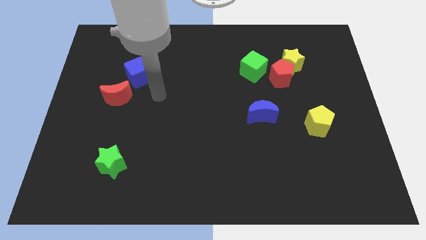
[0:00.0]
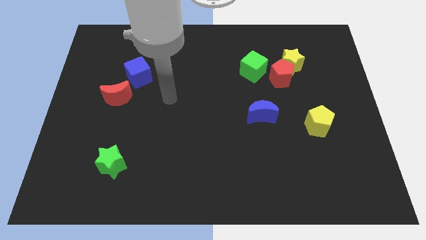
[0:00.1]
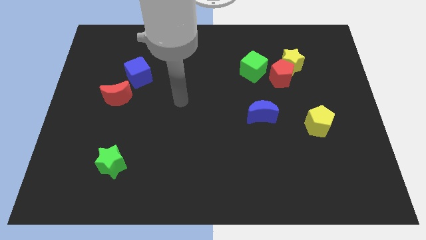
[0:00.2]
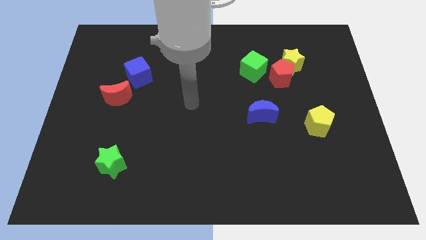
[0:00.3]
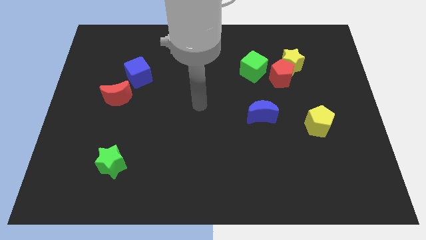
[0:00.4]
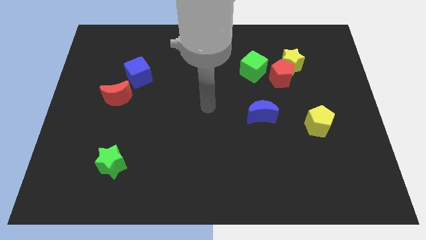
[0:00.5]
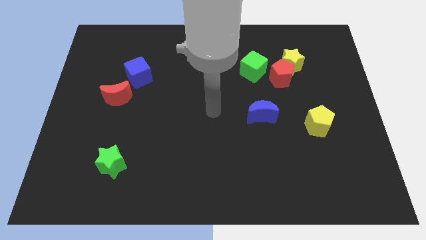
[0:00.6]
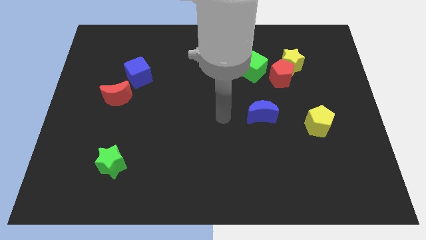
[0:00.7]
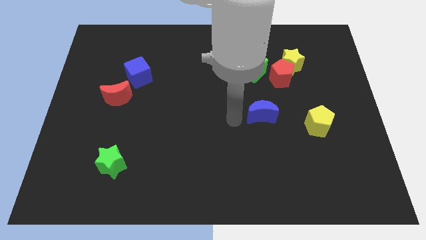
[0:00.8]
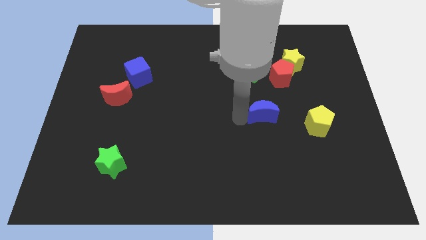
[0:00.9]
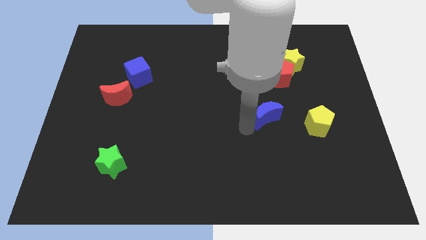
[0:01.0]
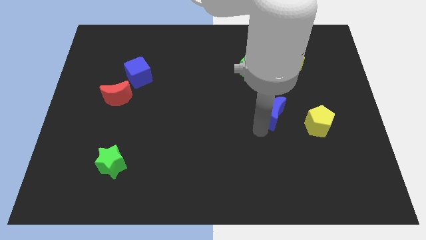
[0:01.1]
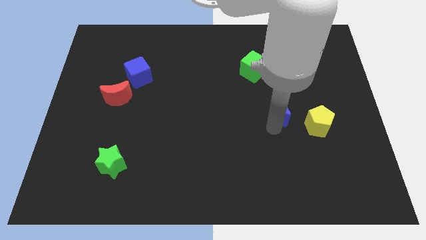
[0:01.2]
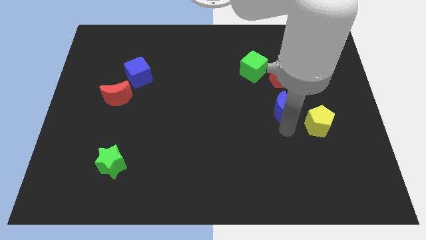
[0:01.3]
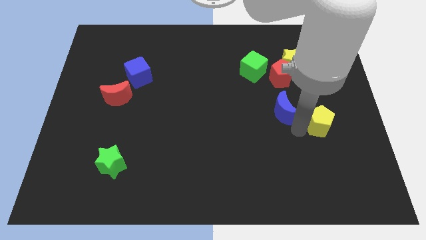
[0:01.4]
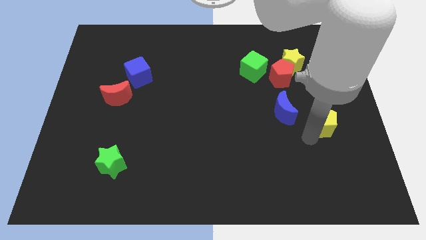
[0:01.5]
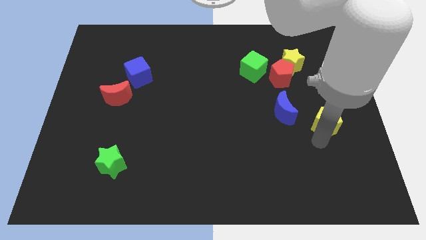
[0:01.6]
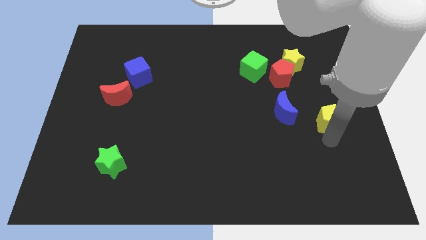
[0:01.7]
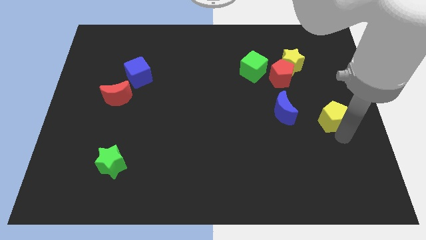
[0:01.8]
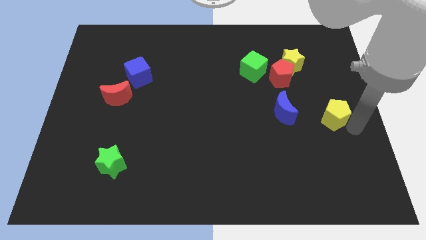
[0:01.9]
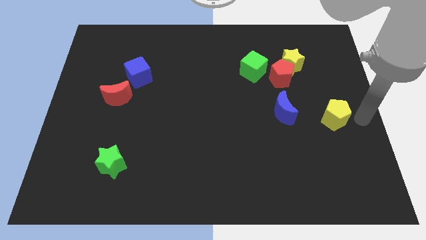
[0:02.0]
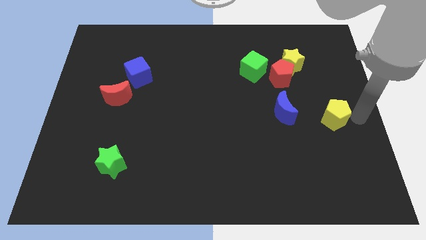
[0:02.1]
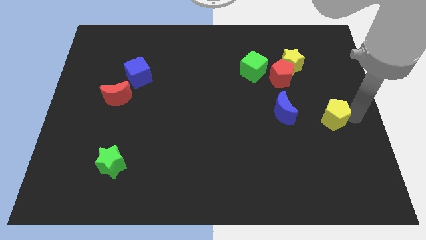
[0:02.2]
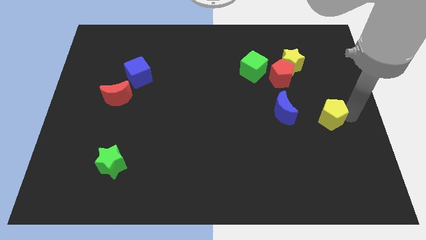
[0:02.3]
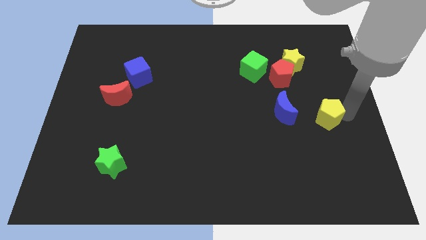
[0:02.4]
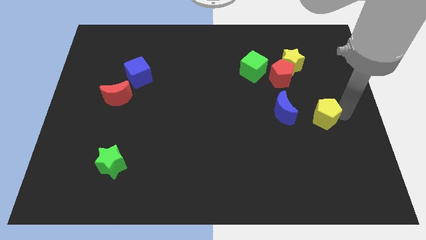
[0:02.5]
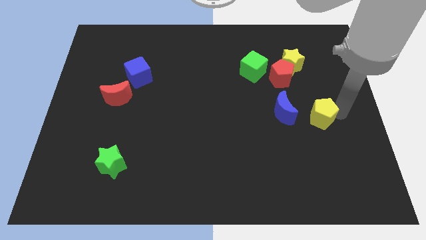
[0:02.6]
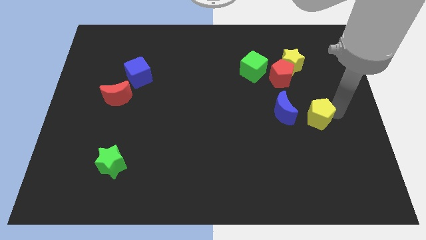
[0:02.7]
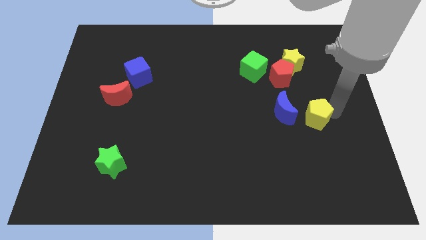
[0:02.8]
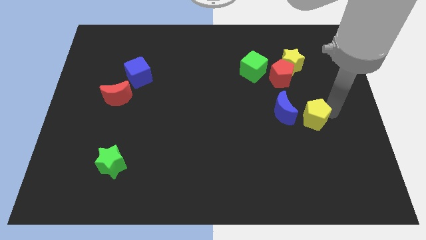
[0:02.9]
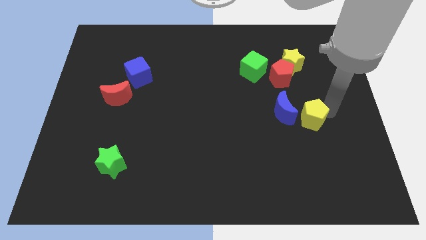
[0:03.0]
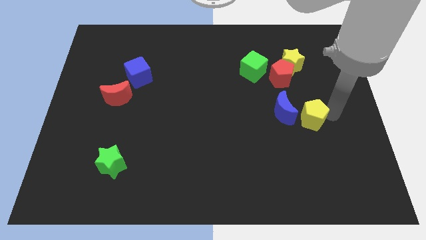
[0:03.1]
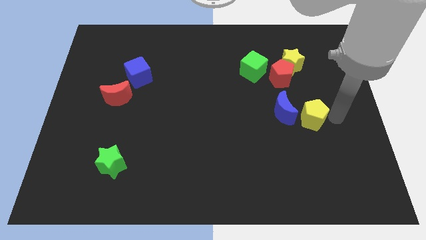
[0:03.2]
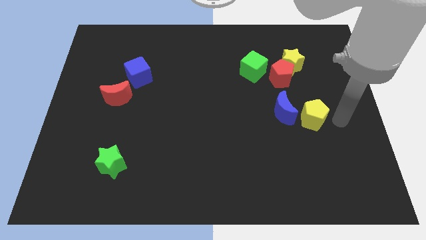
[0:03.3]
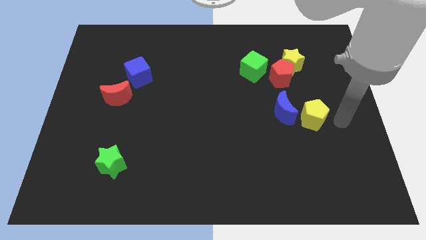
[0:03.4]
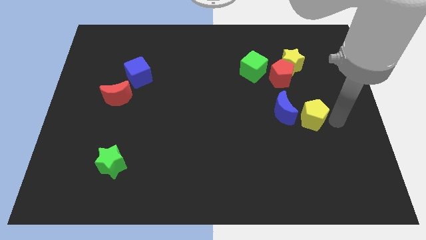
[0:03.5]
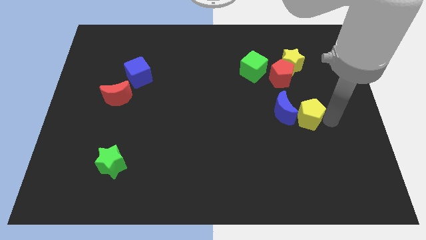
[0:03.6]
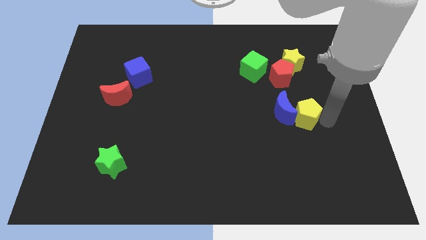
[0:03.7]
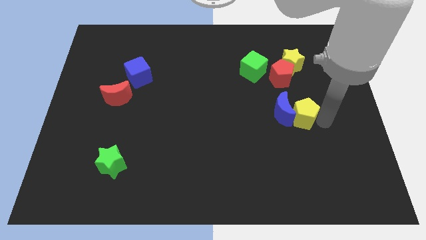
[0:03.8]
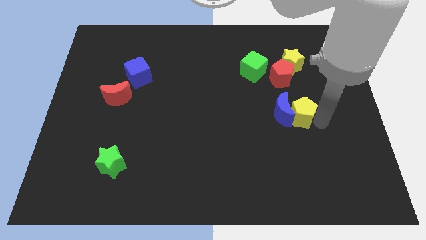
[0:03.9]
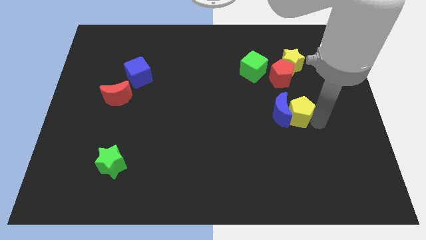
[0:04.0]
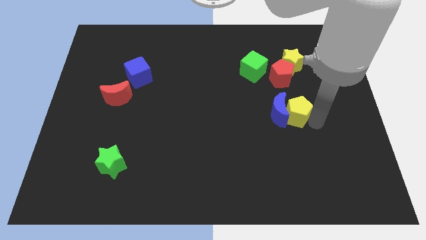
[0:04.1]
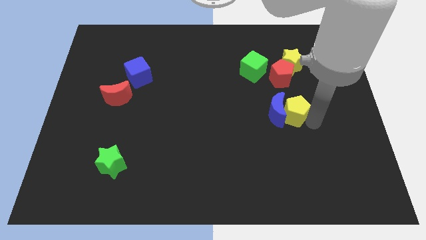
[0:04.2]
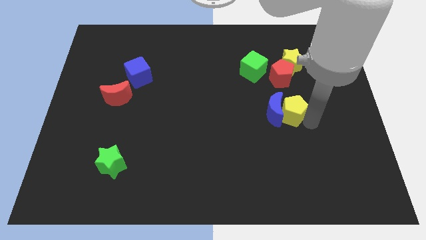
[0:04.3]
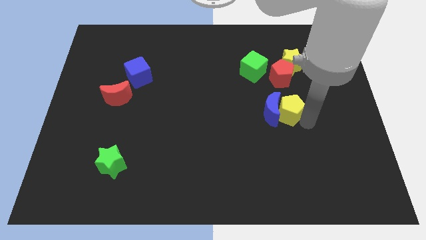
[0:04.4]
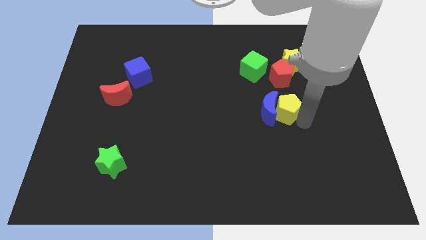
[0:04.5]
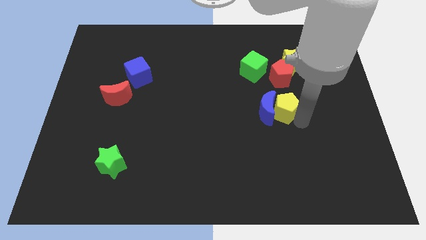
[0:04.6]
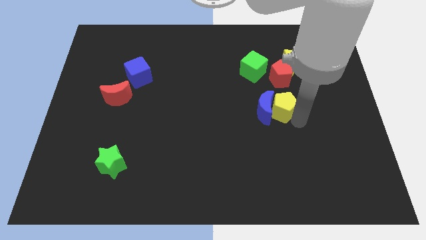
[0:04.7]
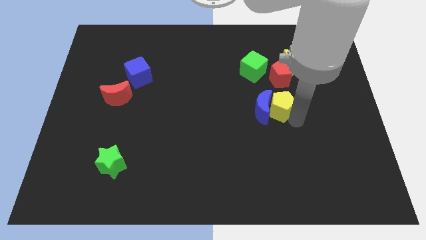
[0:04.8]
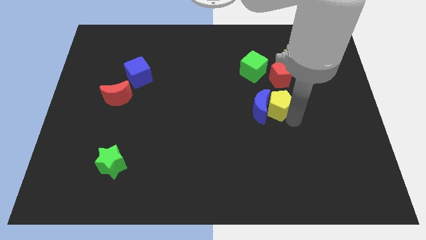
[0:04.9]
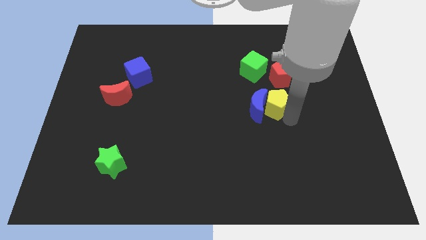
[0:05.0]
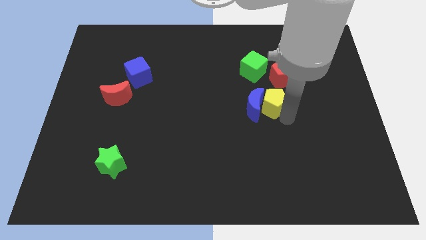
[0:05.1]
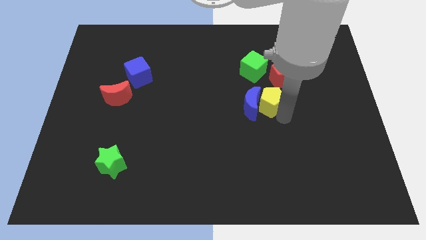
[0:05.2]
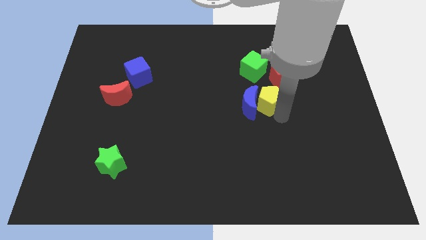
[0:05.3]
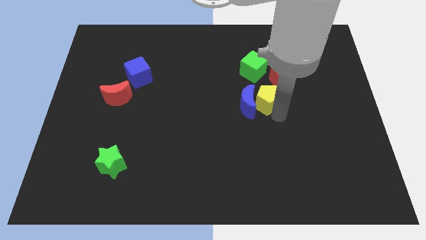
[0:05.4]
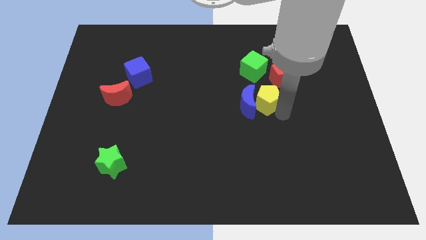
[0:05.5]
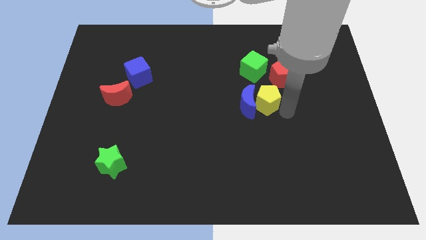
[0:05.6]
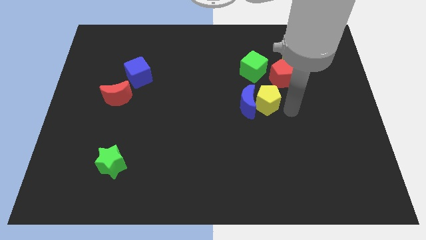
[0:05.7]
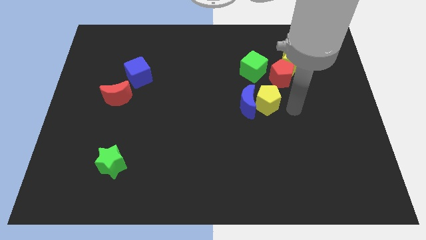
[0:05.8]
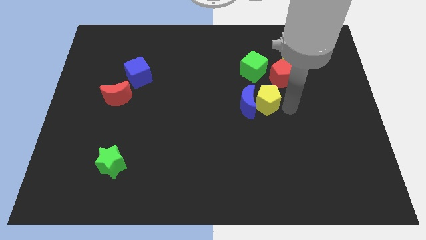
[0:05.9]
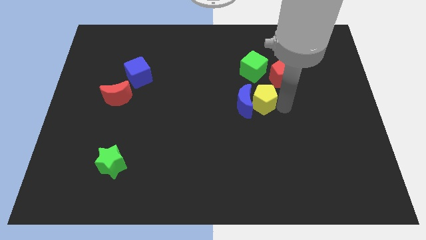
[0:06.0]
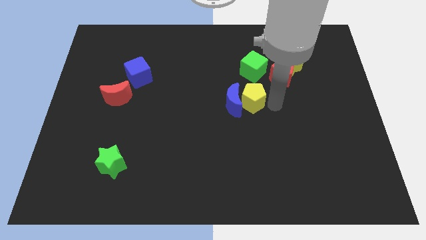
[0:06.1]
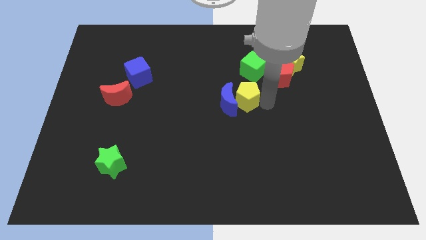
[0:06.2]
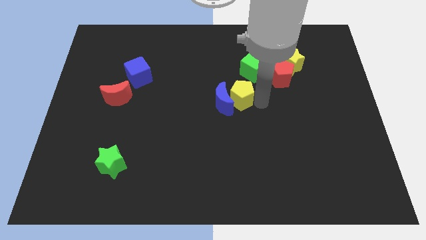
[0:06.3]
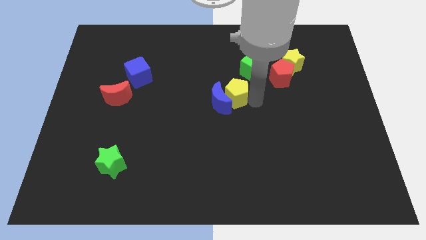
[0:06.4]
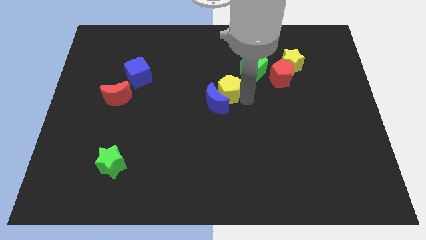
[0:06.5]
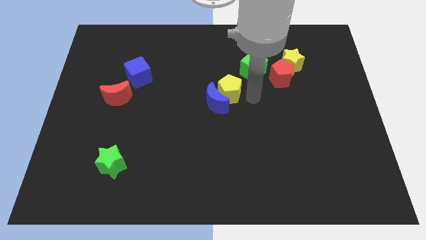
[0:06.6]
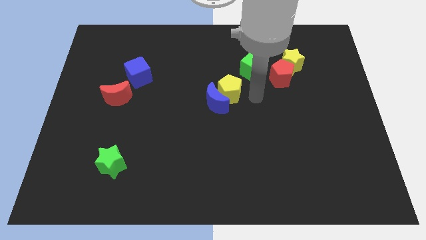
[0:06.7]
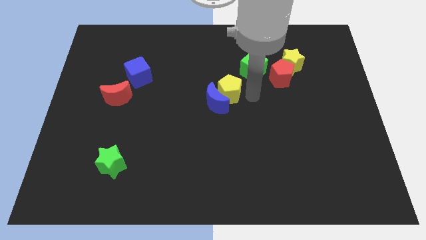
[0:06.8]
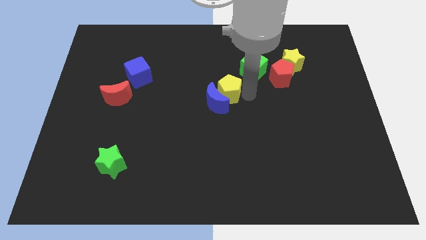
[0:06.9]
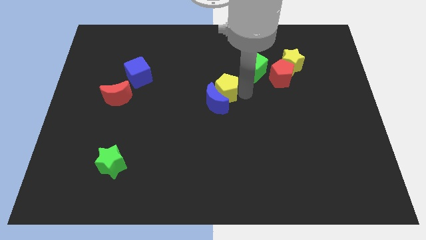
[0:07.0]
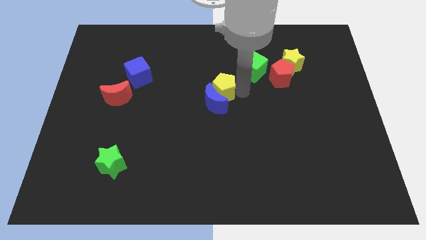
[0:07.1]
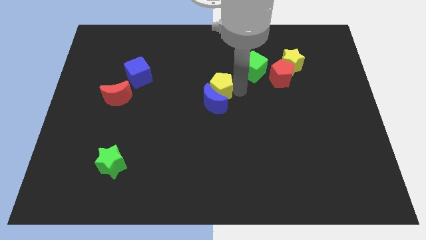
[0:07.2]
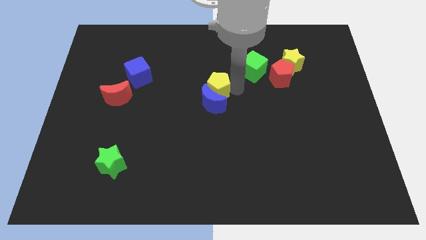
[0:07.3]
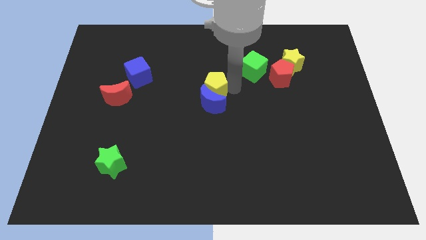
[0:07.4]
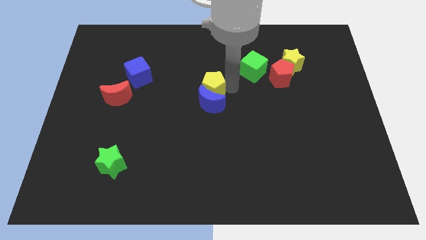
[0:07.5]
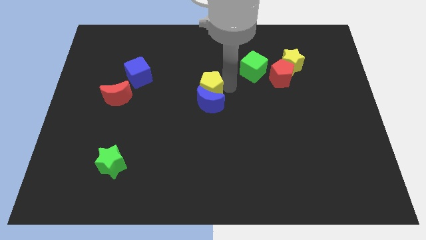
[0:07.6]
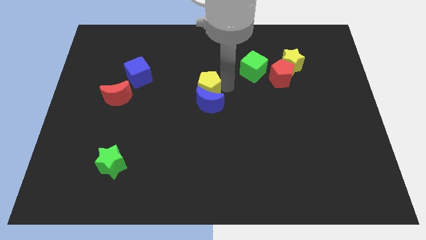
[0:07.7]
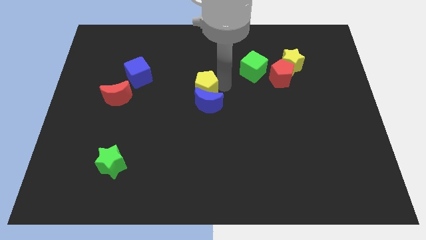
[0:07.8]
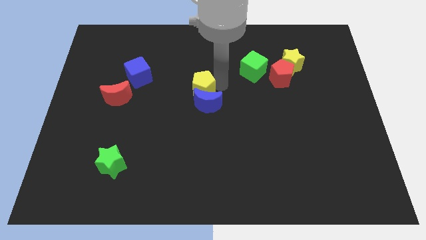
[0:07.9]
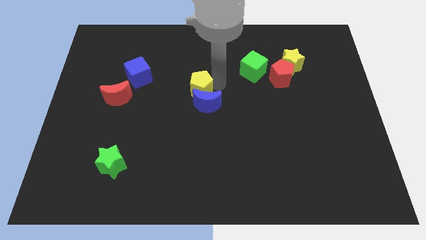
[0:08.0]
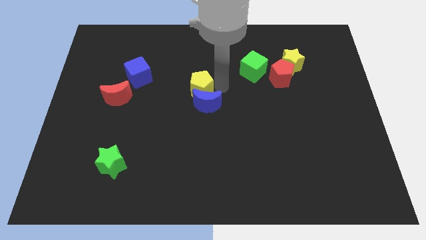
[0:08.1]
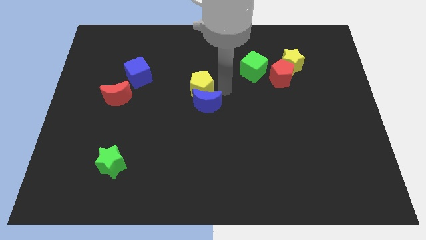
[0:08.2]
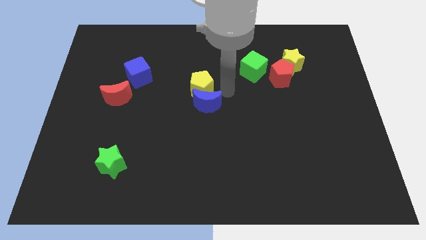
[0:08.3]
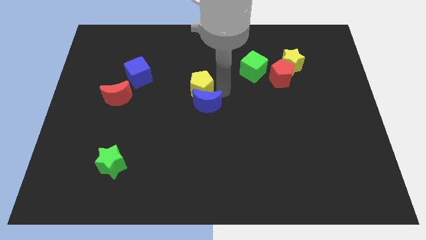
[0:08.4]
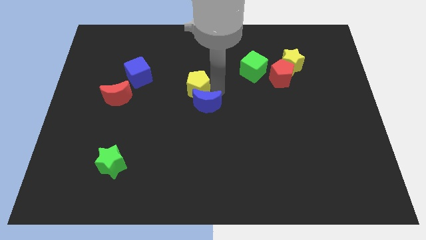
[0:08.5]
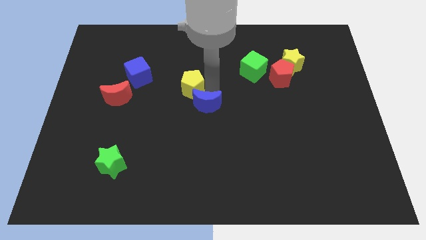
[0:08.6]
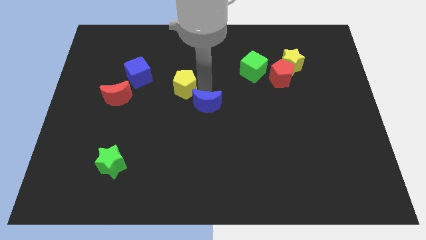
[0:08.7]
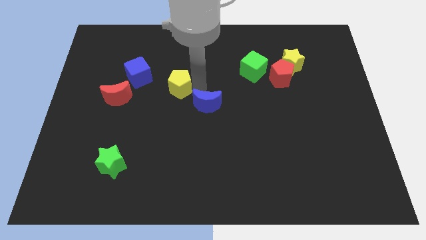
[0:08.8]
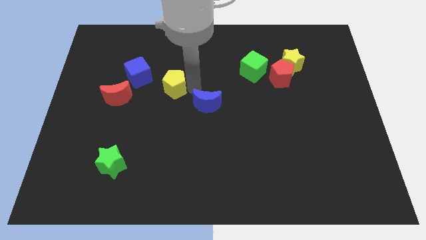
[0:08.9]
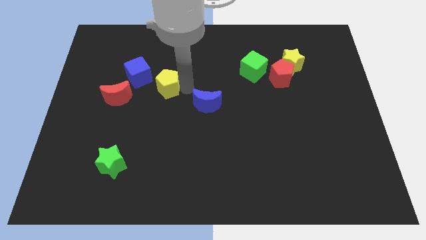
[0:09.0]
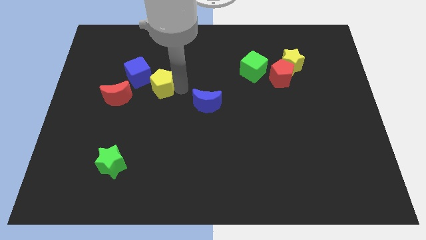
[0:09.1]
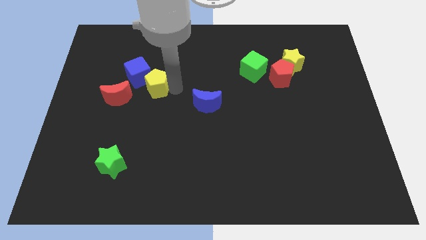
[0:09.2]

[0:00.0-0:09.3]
move the yellow pentagon next to the blue cube
